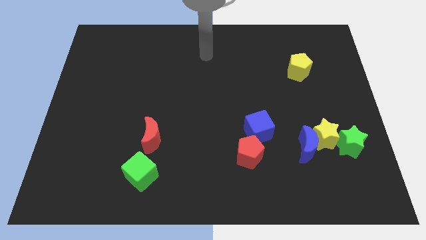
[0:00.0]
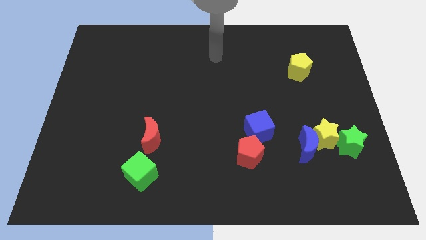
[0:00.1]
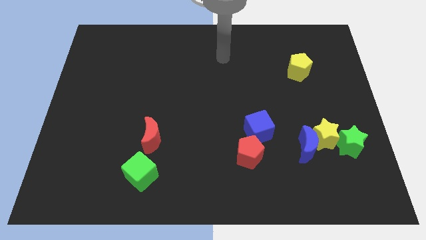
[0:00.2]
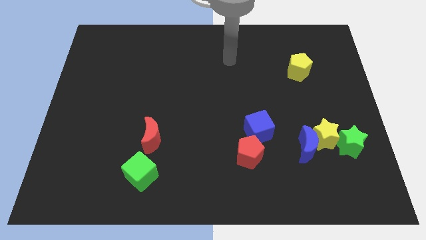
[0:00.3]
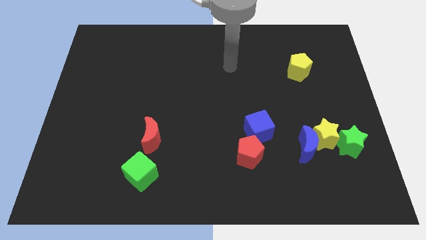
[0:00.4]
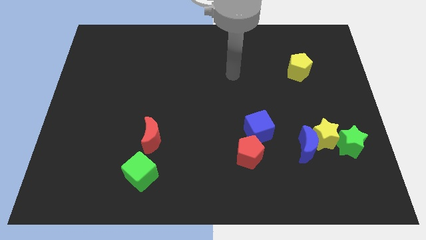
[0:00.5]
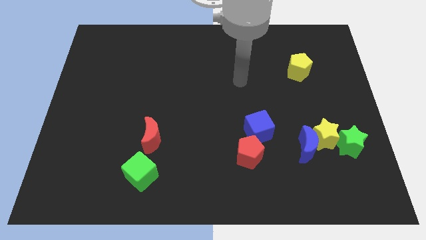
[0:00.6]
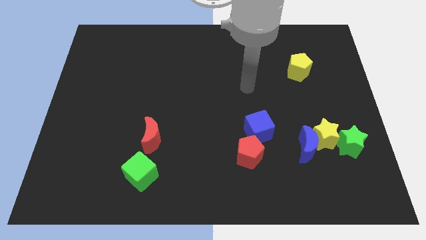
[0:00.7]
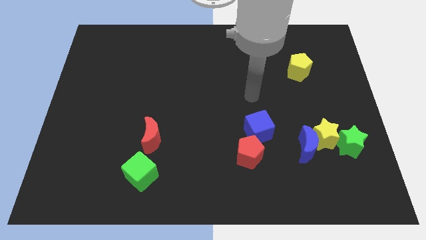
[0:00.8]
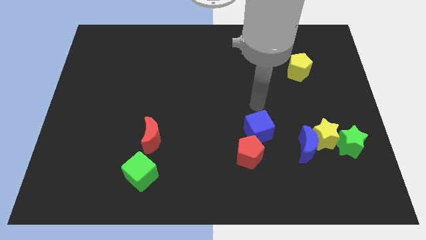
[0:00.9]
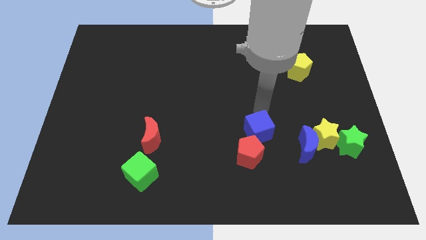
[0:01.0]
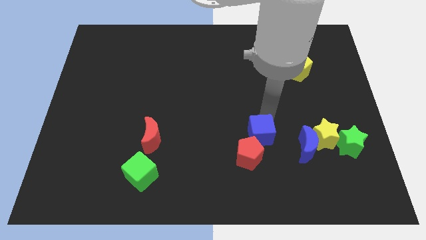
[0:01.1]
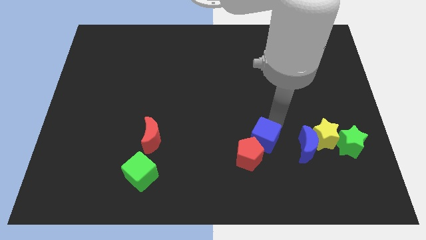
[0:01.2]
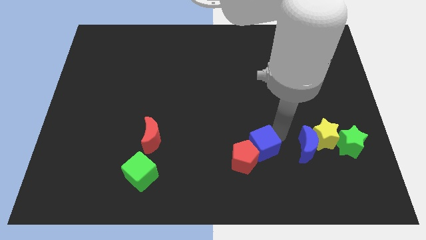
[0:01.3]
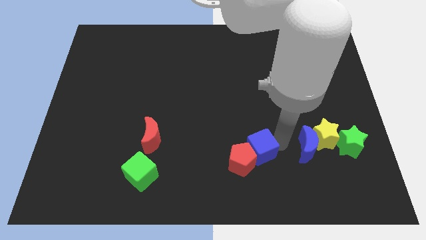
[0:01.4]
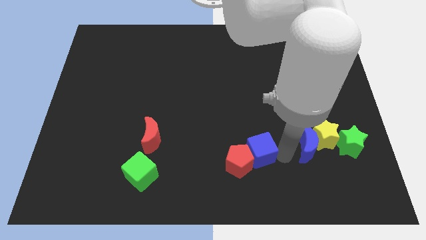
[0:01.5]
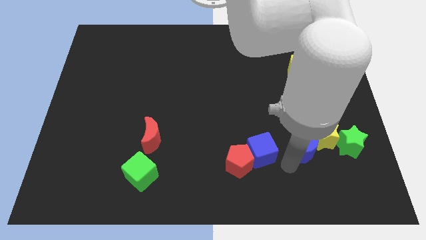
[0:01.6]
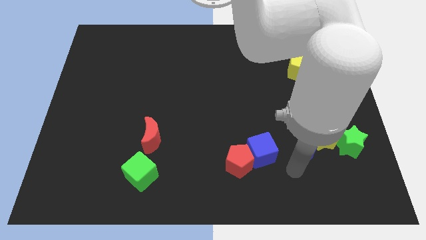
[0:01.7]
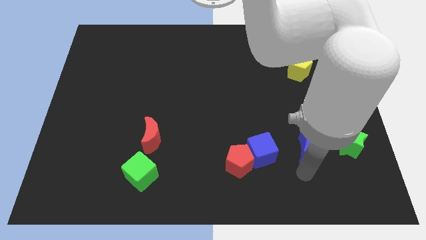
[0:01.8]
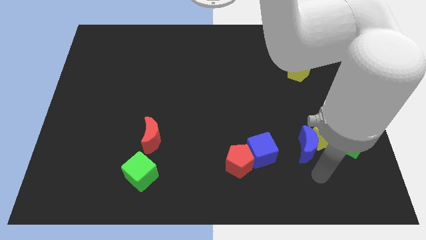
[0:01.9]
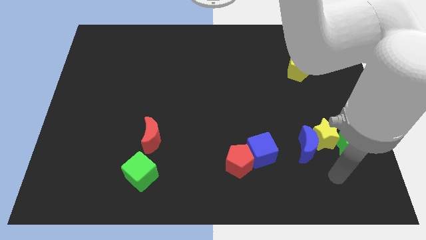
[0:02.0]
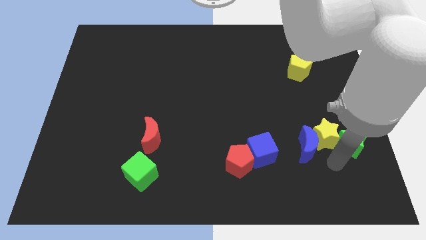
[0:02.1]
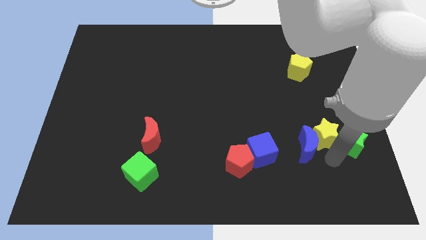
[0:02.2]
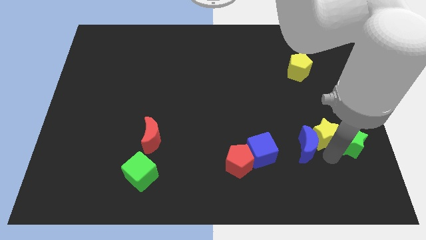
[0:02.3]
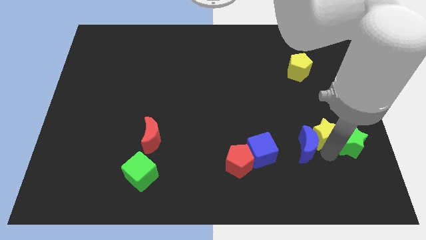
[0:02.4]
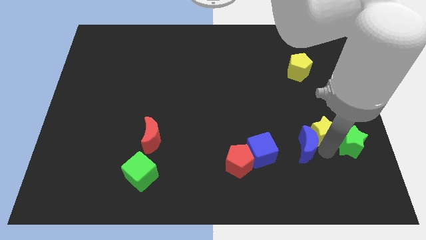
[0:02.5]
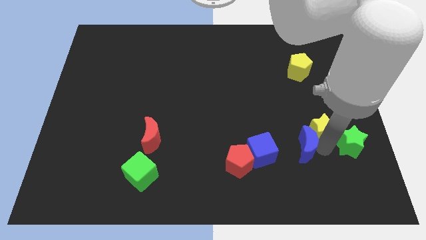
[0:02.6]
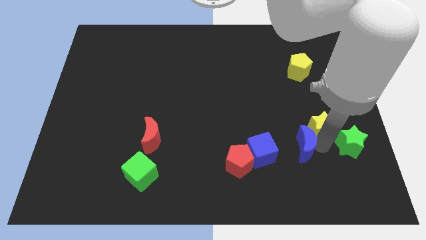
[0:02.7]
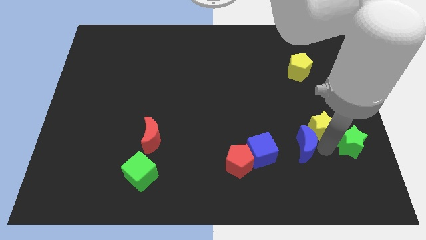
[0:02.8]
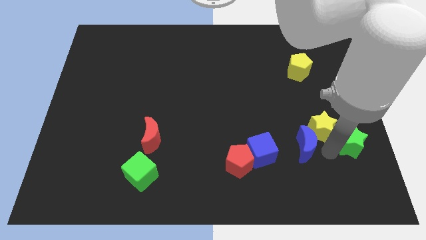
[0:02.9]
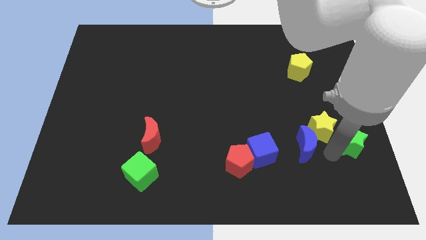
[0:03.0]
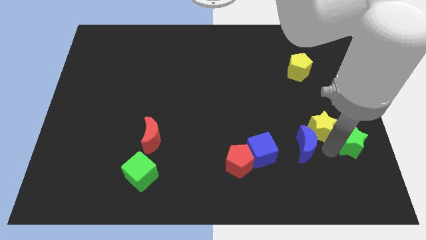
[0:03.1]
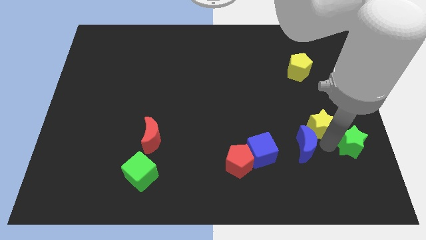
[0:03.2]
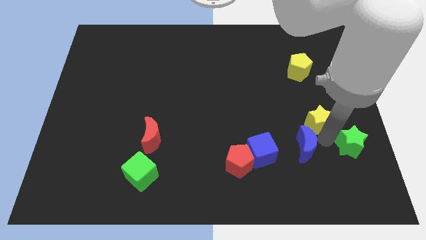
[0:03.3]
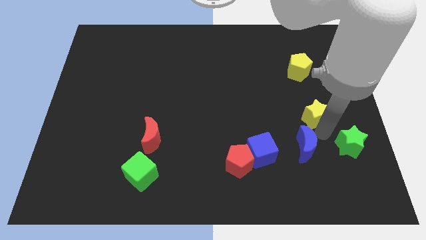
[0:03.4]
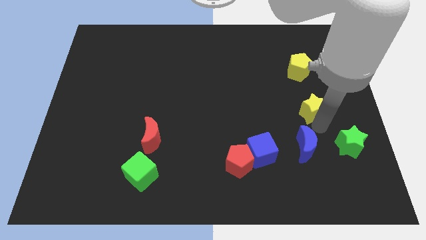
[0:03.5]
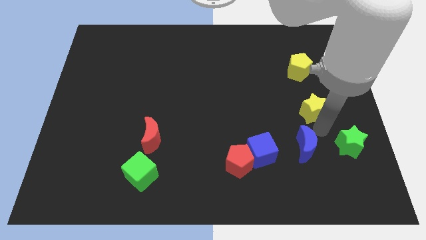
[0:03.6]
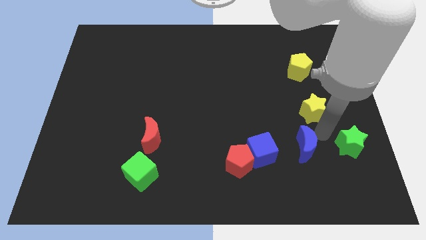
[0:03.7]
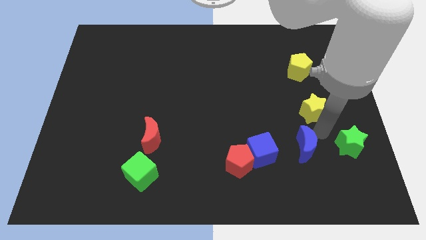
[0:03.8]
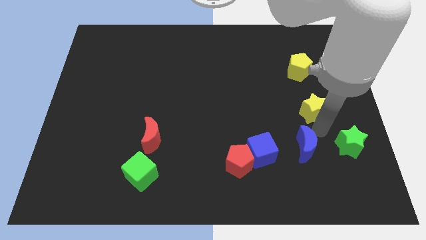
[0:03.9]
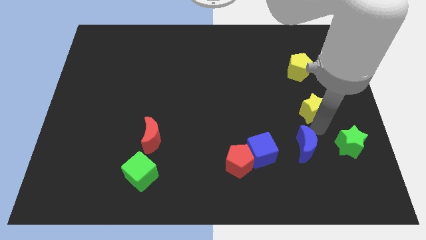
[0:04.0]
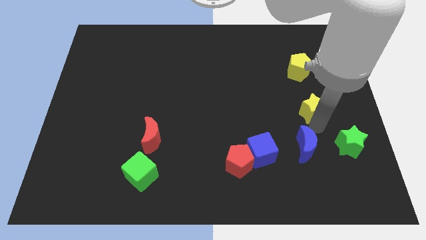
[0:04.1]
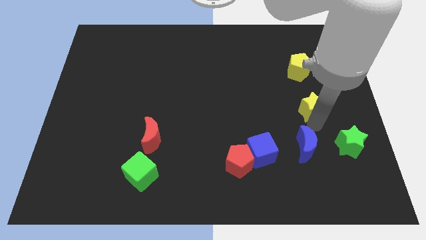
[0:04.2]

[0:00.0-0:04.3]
move the yellow star away from the blue moon and green star

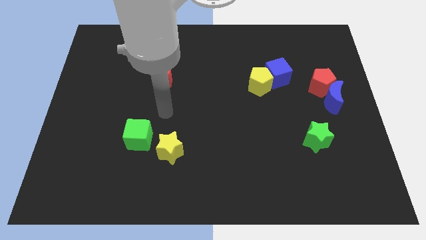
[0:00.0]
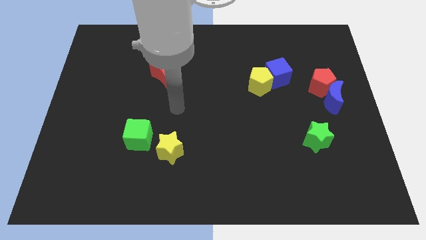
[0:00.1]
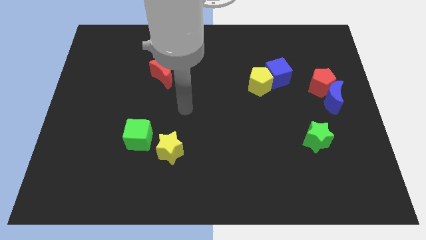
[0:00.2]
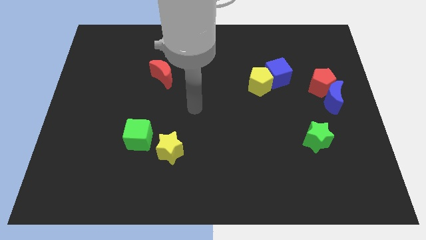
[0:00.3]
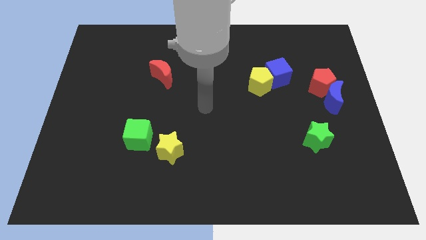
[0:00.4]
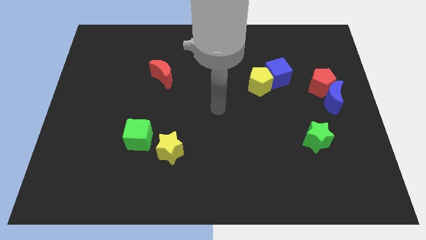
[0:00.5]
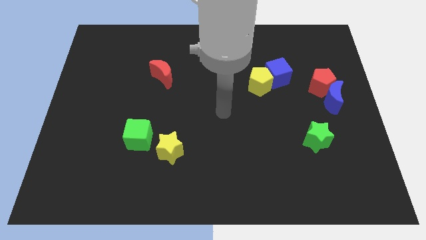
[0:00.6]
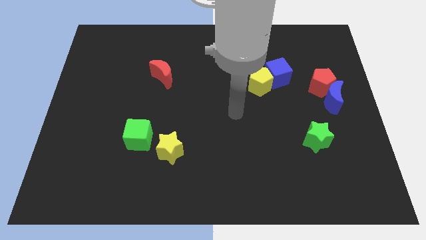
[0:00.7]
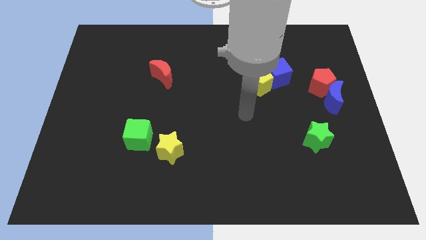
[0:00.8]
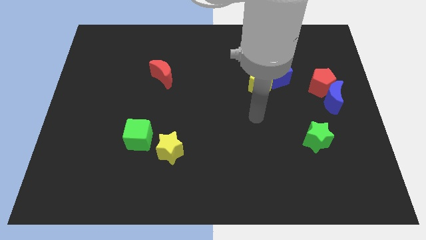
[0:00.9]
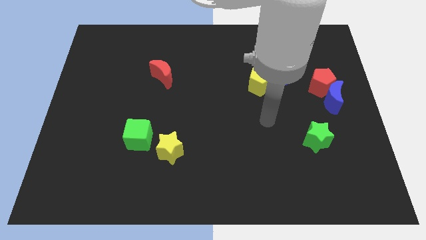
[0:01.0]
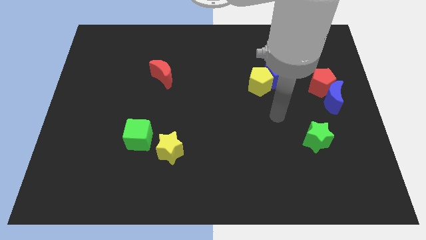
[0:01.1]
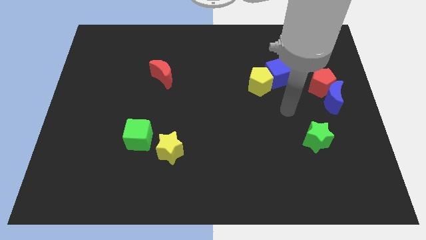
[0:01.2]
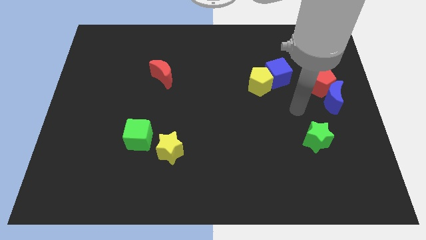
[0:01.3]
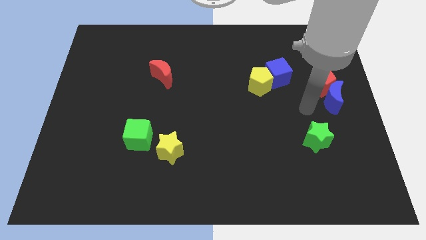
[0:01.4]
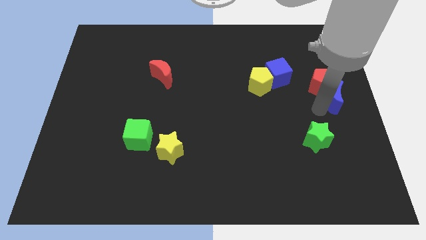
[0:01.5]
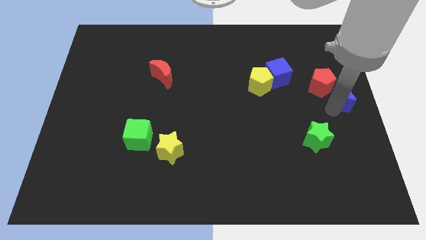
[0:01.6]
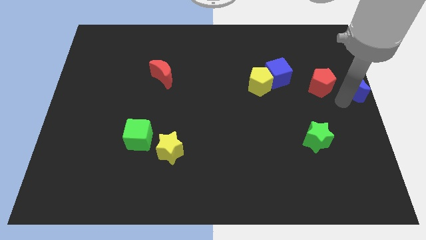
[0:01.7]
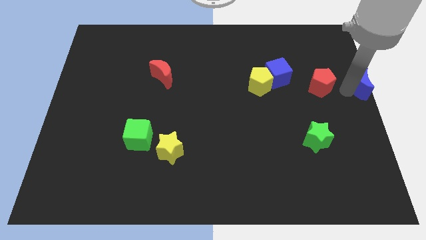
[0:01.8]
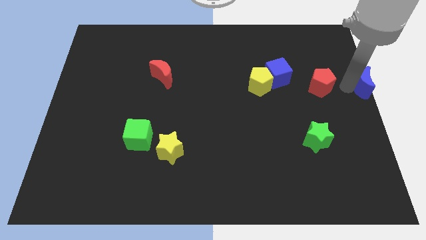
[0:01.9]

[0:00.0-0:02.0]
pull the red pentagon apart from the blue moon

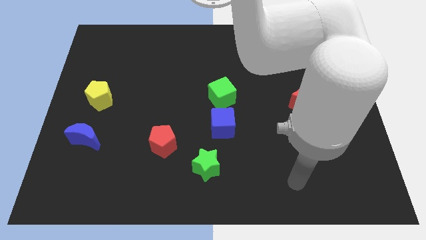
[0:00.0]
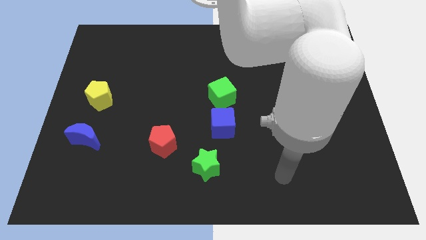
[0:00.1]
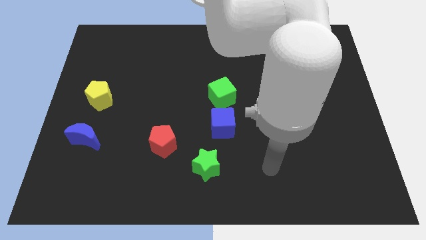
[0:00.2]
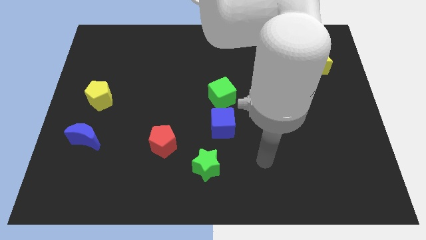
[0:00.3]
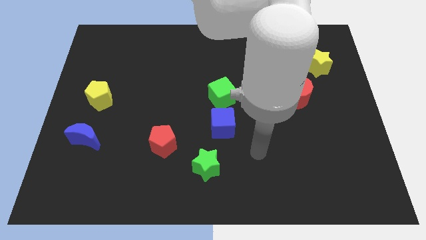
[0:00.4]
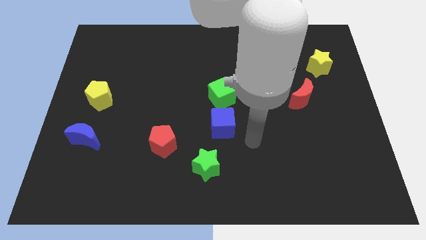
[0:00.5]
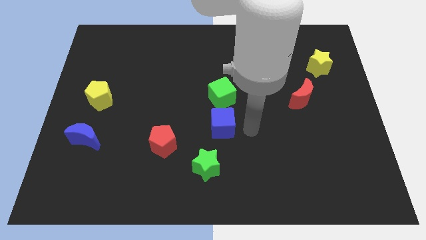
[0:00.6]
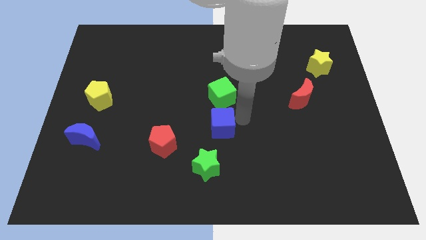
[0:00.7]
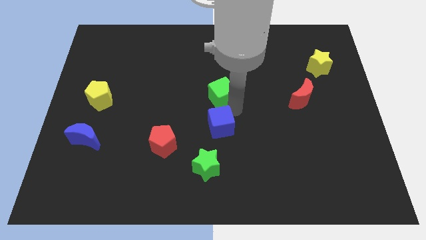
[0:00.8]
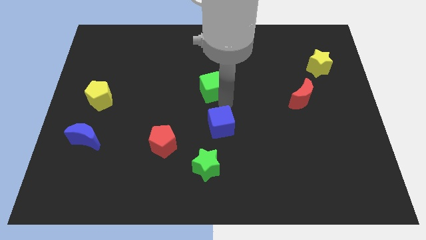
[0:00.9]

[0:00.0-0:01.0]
move the blue cube away from the green cube

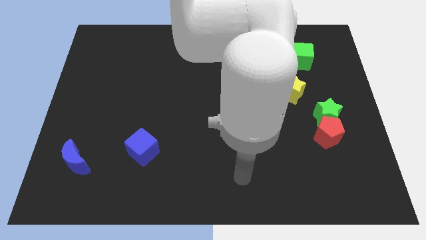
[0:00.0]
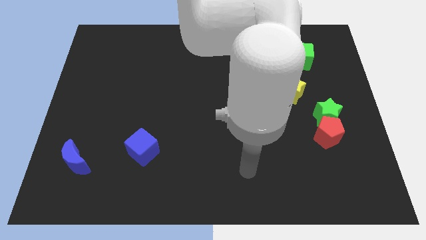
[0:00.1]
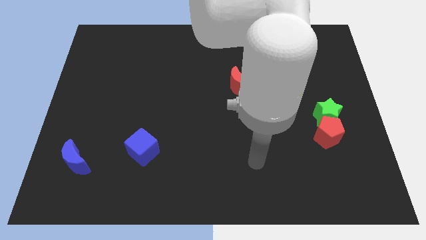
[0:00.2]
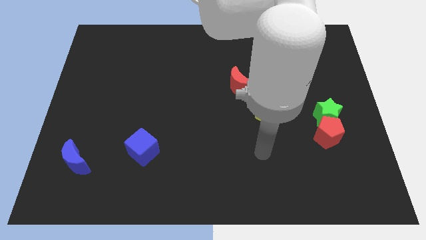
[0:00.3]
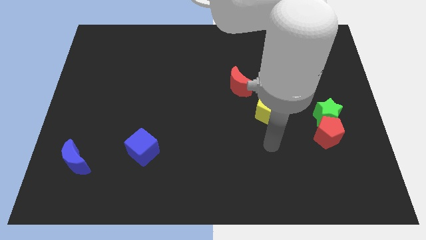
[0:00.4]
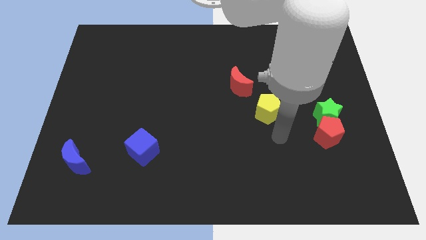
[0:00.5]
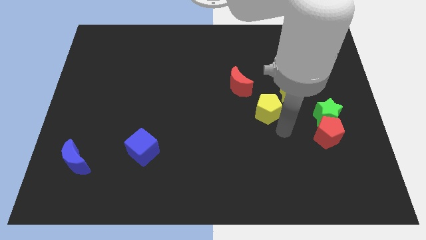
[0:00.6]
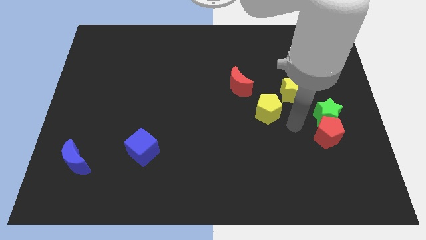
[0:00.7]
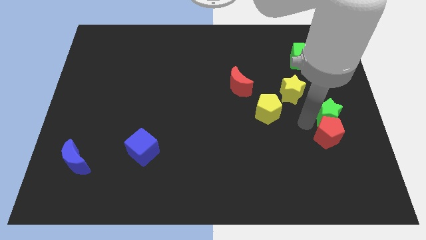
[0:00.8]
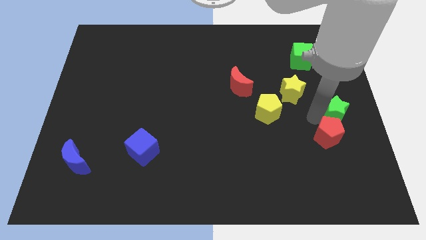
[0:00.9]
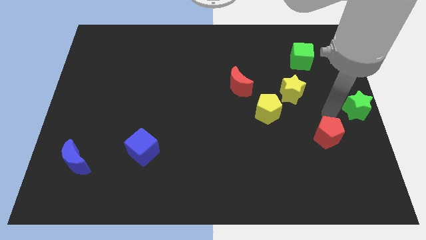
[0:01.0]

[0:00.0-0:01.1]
separate the red pentagon from the green star

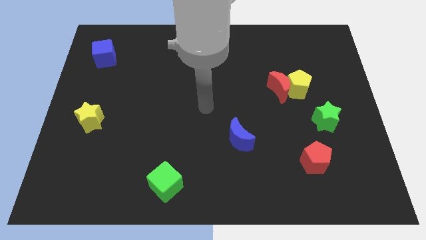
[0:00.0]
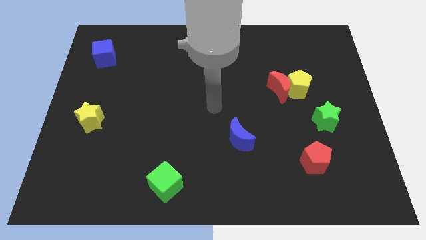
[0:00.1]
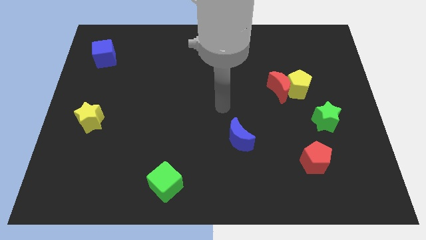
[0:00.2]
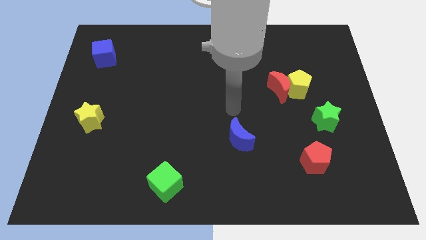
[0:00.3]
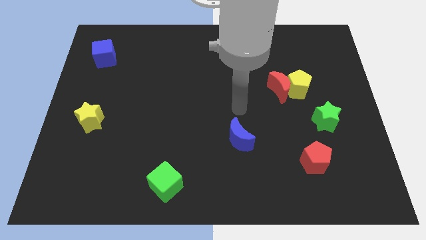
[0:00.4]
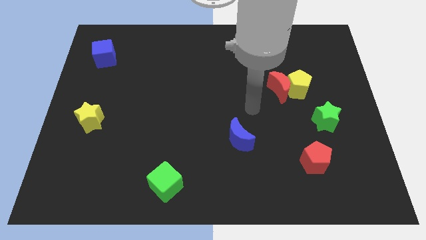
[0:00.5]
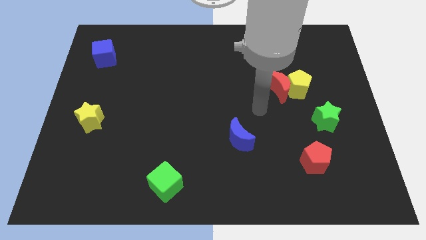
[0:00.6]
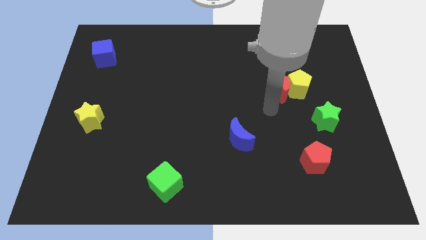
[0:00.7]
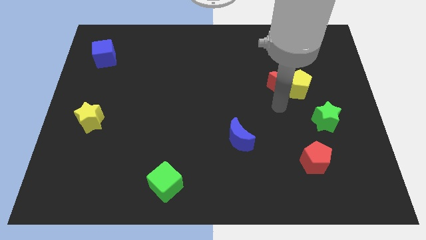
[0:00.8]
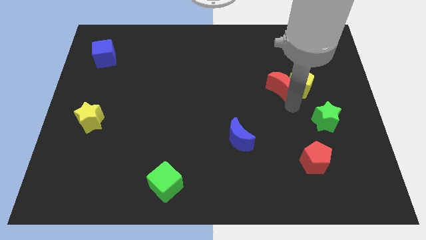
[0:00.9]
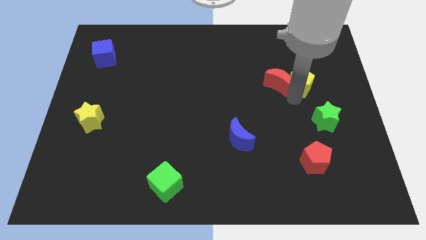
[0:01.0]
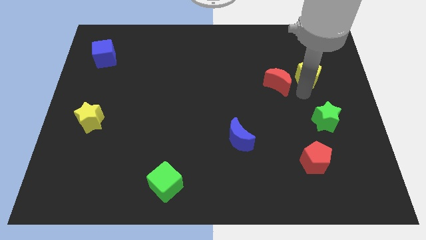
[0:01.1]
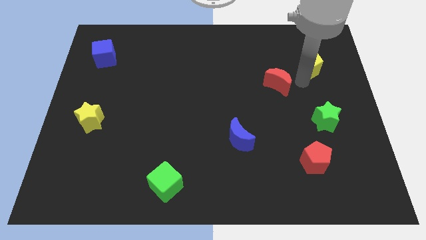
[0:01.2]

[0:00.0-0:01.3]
move the red moon away from the yellow pentagon
